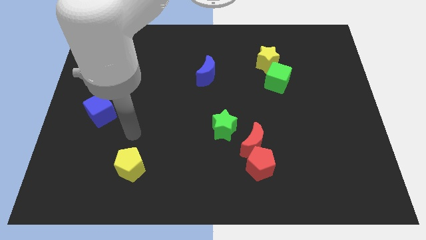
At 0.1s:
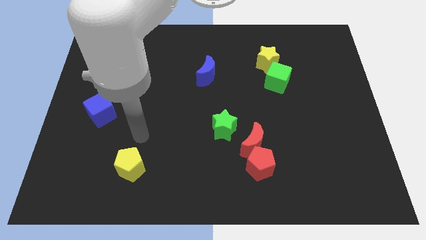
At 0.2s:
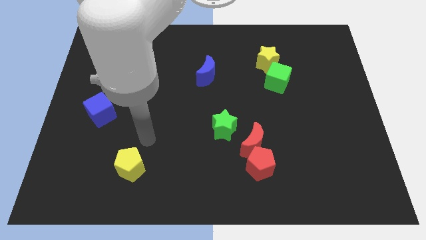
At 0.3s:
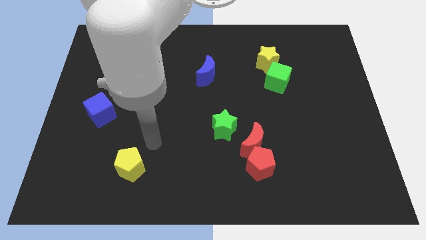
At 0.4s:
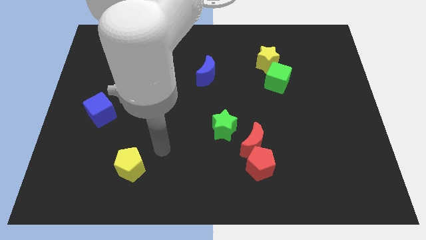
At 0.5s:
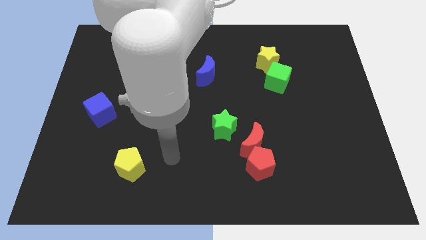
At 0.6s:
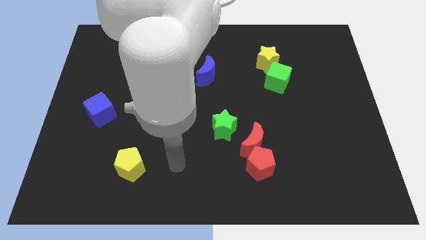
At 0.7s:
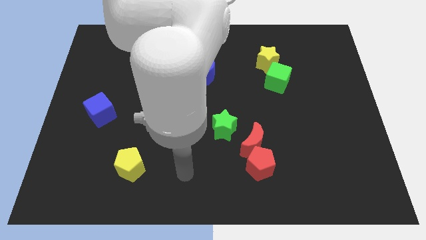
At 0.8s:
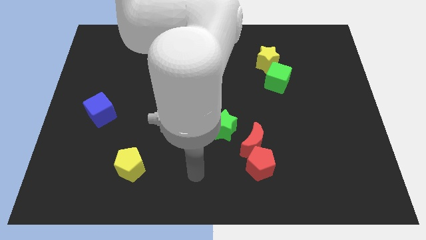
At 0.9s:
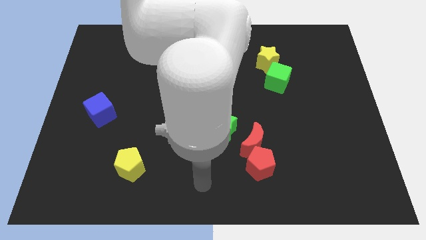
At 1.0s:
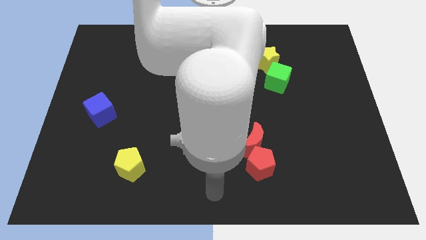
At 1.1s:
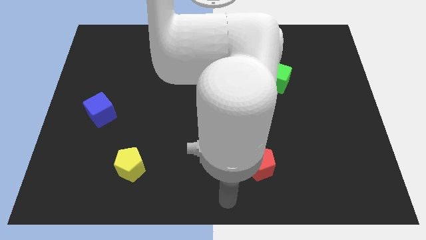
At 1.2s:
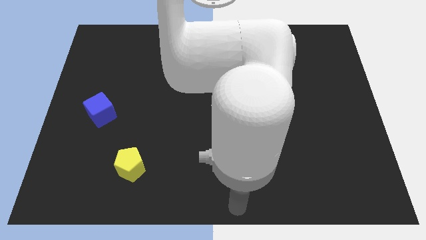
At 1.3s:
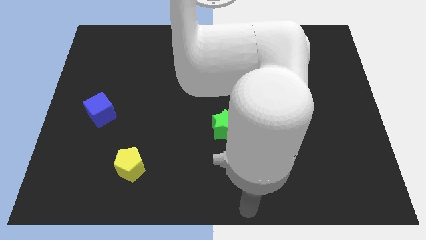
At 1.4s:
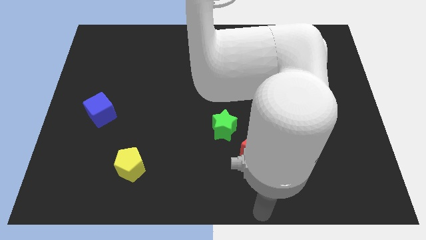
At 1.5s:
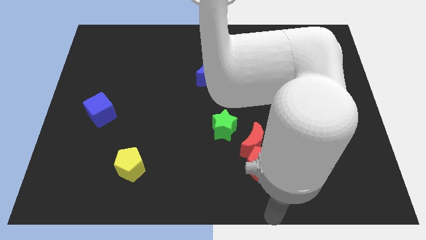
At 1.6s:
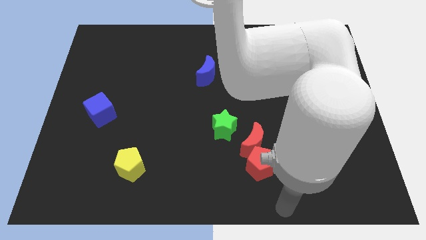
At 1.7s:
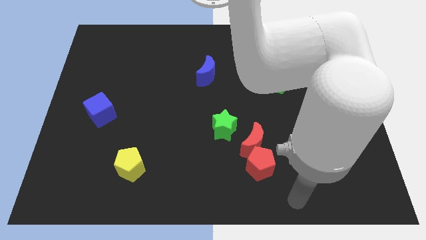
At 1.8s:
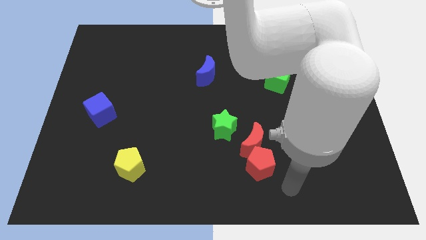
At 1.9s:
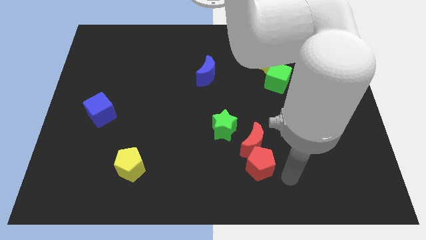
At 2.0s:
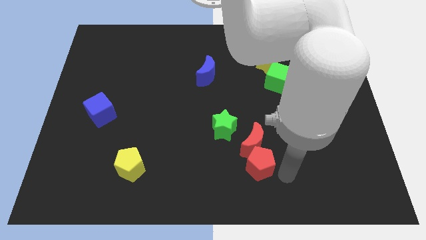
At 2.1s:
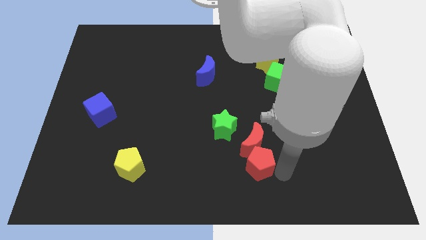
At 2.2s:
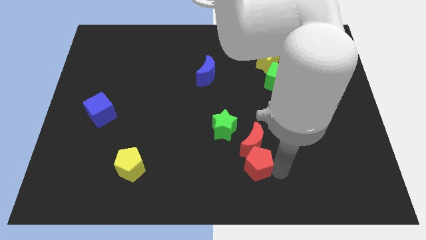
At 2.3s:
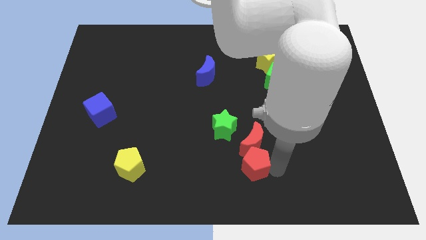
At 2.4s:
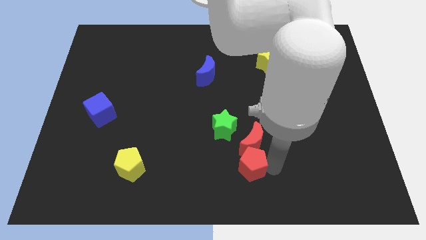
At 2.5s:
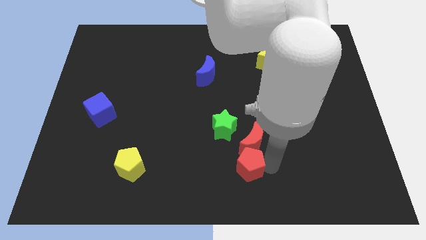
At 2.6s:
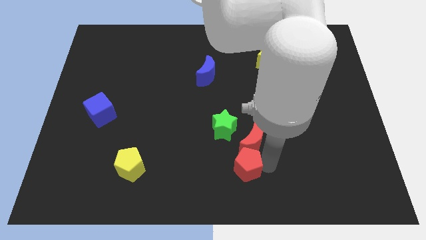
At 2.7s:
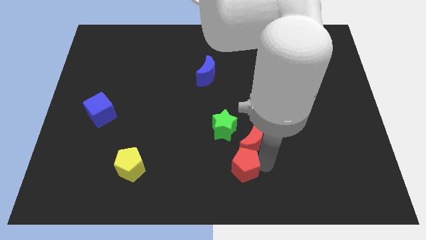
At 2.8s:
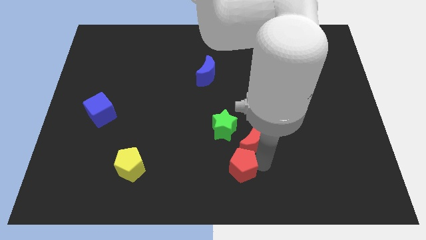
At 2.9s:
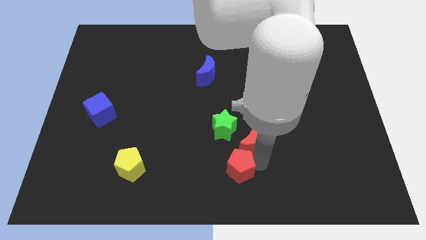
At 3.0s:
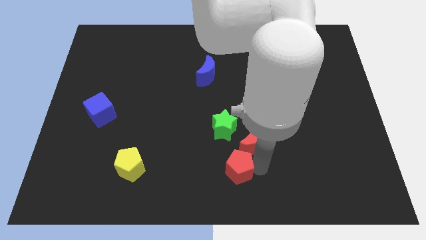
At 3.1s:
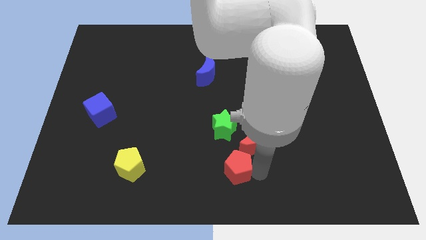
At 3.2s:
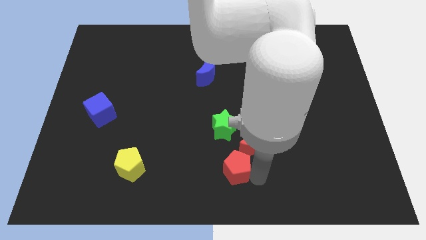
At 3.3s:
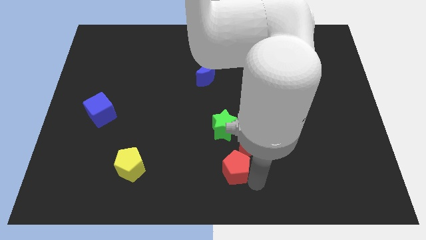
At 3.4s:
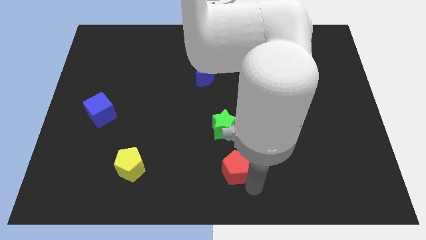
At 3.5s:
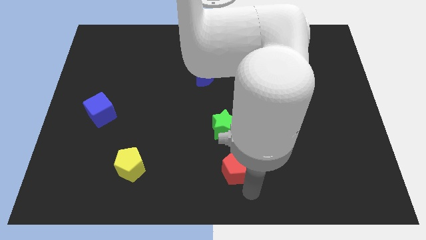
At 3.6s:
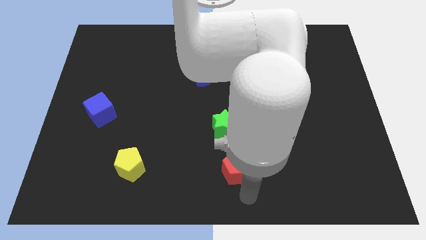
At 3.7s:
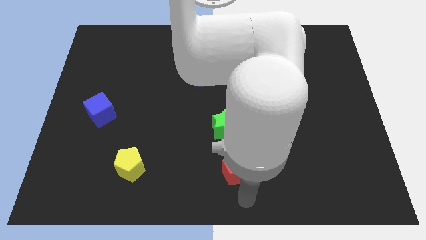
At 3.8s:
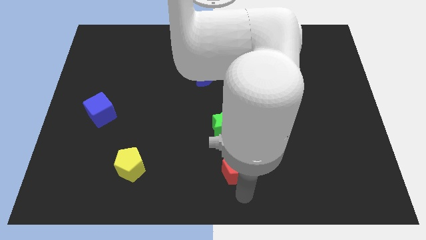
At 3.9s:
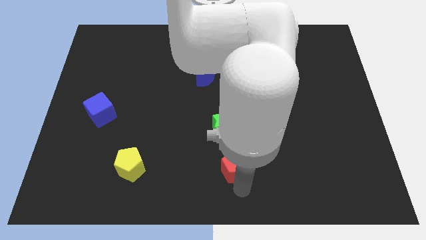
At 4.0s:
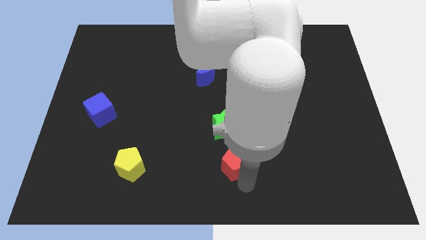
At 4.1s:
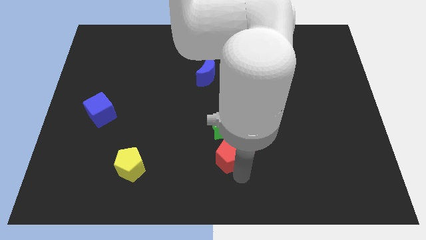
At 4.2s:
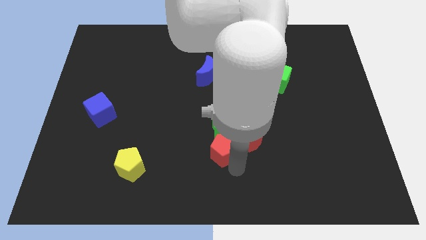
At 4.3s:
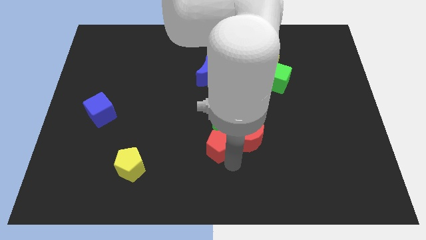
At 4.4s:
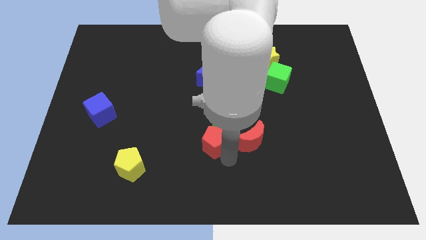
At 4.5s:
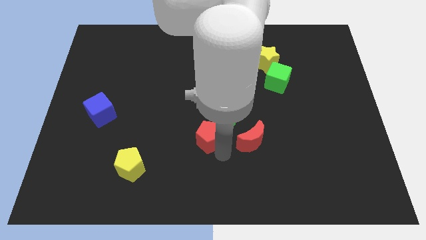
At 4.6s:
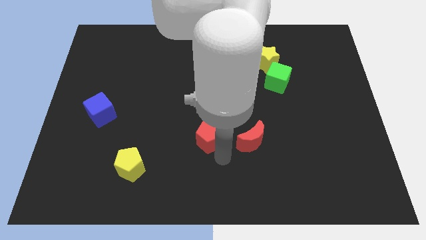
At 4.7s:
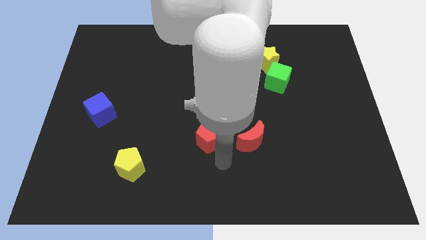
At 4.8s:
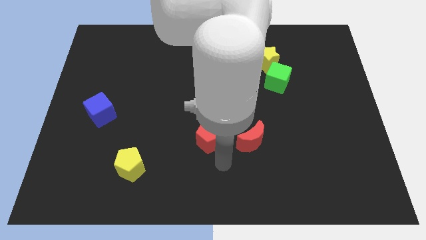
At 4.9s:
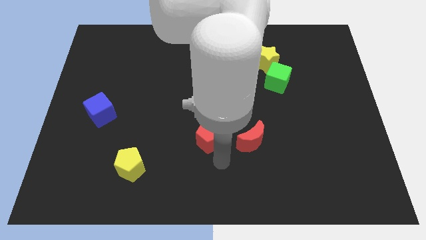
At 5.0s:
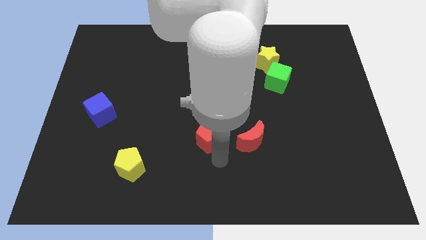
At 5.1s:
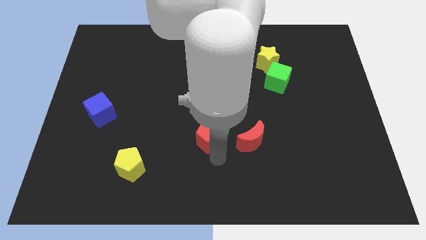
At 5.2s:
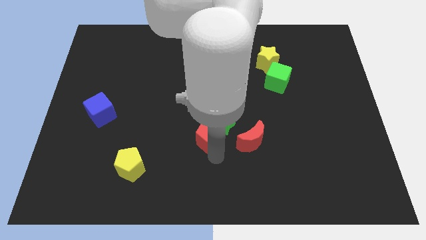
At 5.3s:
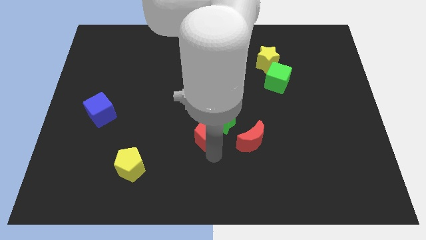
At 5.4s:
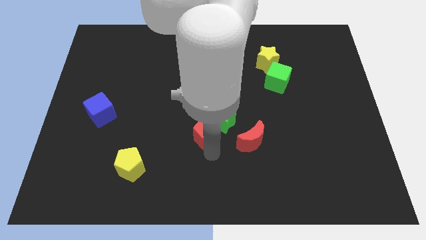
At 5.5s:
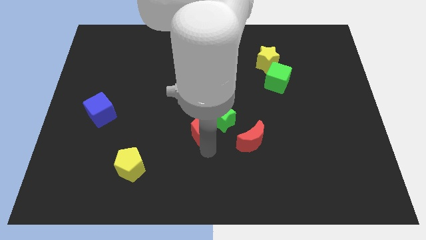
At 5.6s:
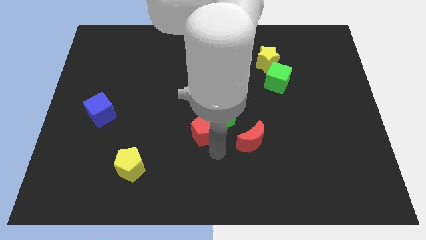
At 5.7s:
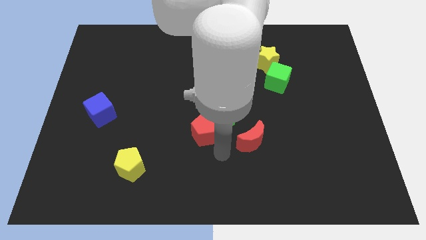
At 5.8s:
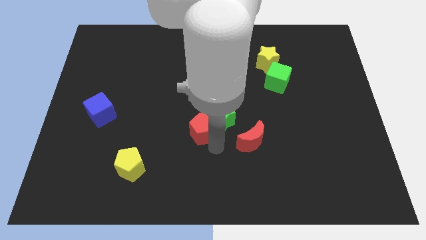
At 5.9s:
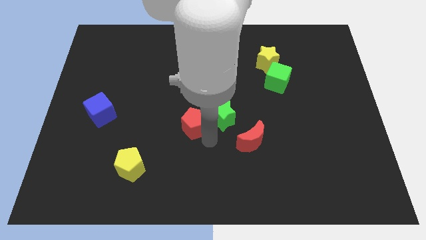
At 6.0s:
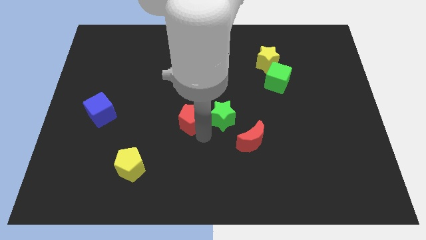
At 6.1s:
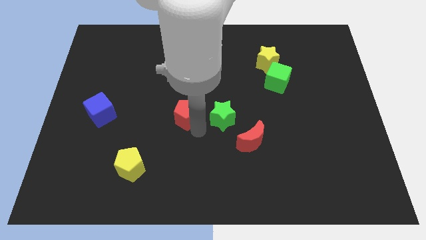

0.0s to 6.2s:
slide the red pentagon up and left

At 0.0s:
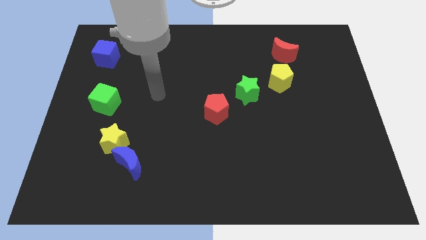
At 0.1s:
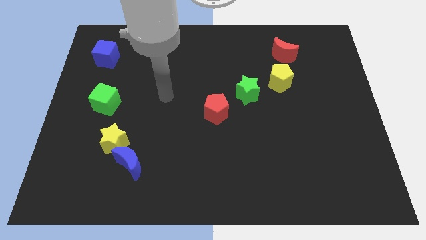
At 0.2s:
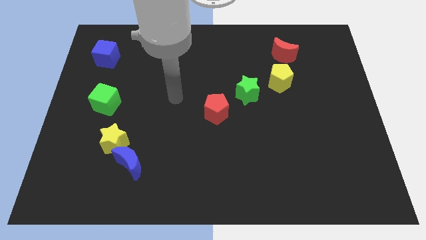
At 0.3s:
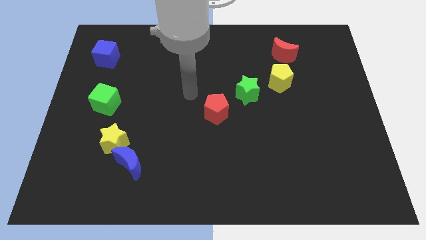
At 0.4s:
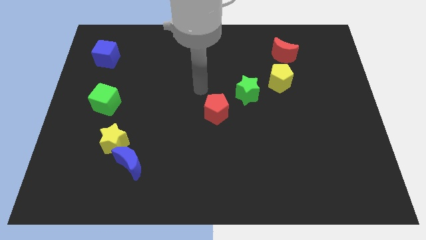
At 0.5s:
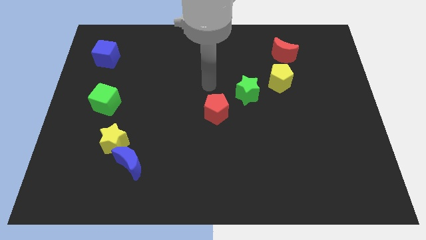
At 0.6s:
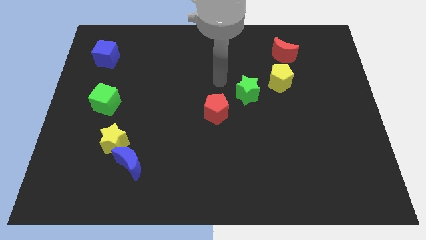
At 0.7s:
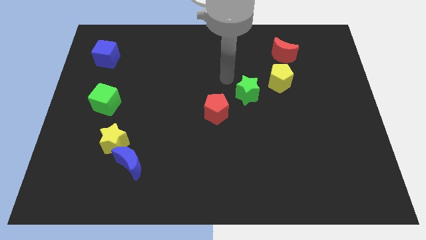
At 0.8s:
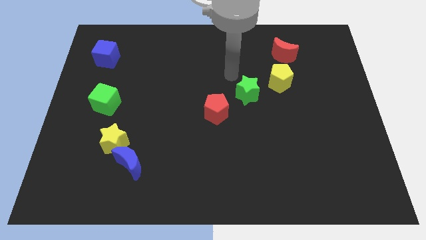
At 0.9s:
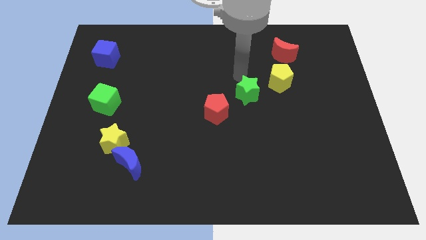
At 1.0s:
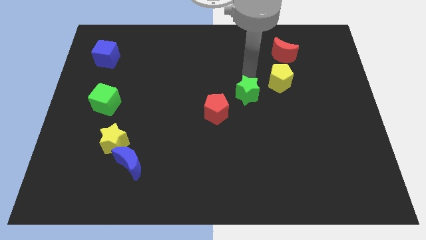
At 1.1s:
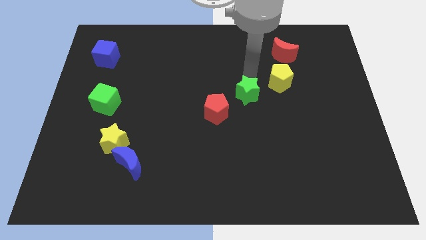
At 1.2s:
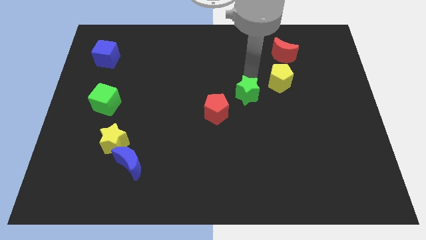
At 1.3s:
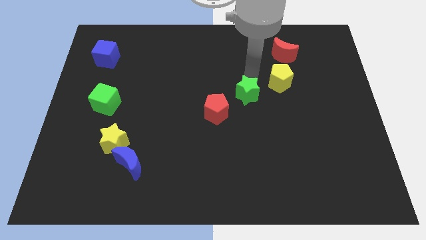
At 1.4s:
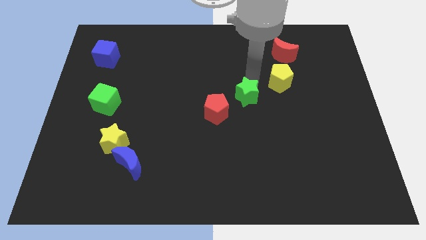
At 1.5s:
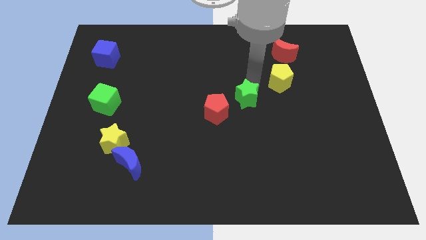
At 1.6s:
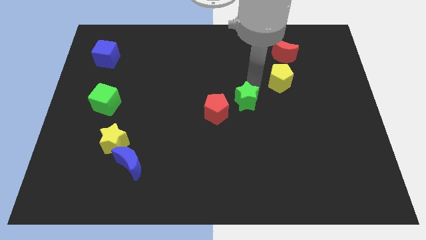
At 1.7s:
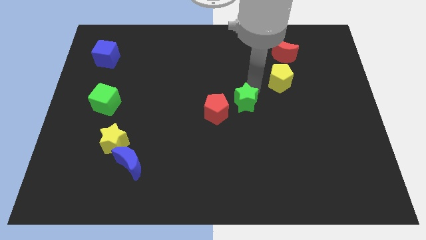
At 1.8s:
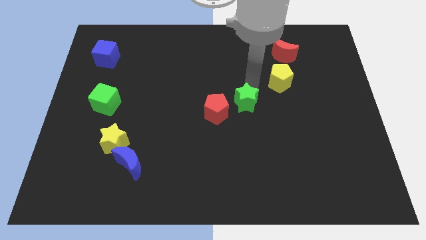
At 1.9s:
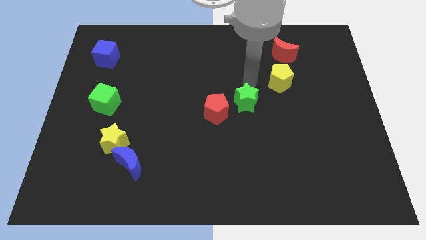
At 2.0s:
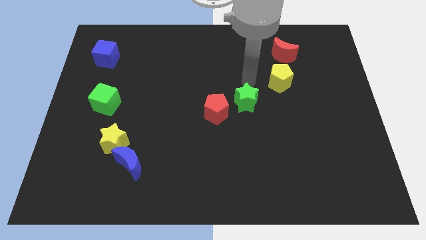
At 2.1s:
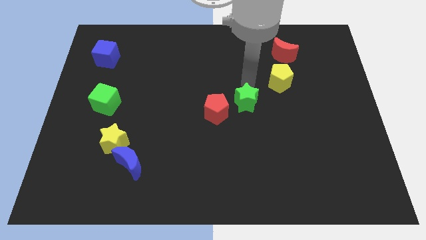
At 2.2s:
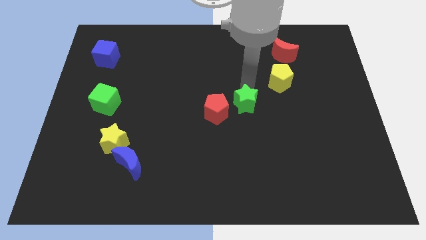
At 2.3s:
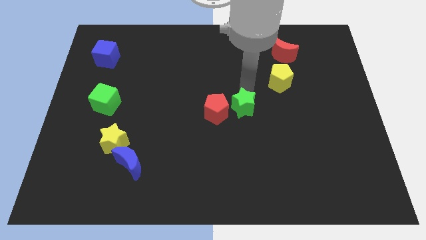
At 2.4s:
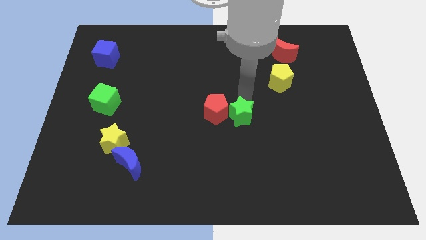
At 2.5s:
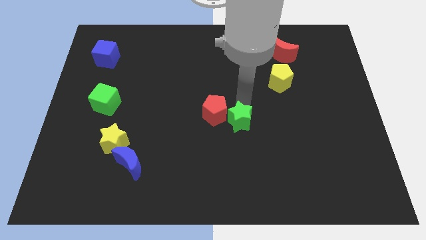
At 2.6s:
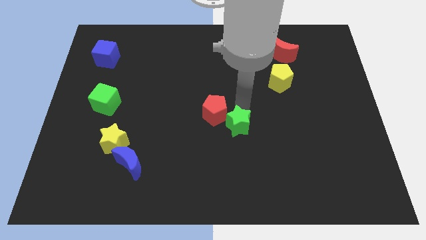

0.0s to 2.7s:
move the green star downwards and then to the left somewhat
